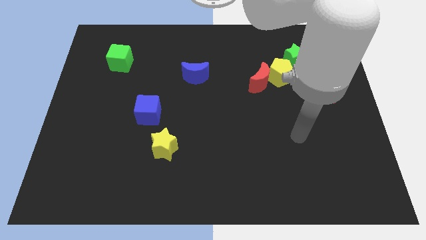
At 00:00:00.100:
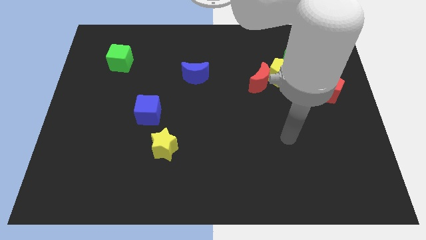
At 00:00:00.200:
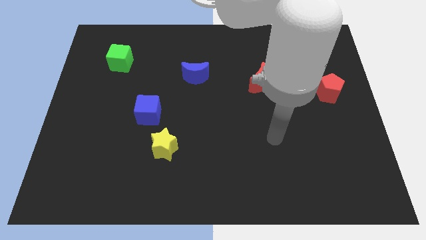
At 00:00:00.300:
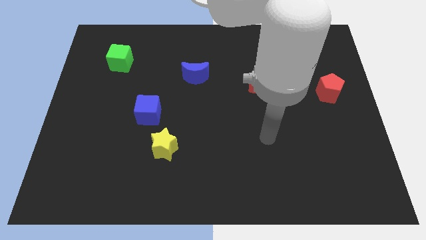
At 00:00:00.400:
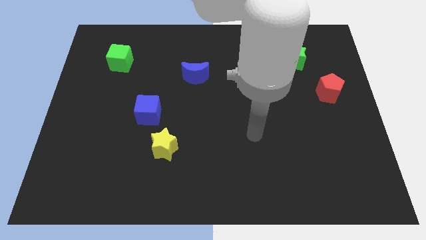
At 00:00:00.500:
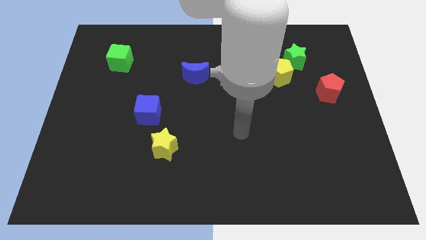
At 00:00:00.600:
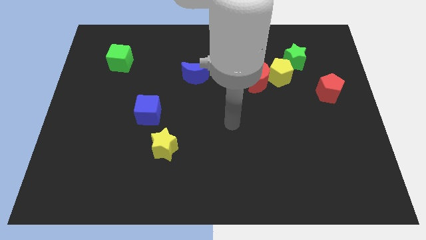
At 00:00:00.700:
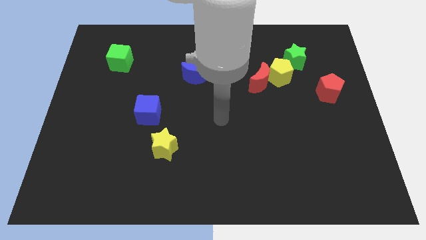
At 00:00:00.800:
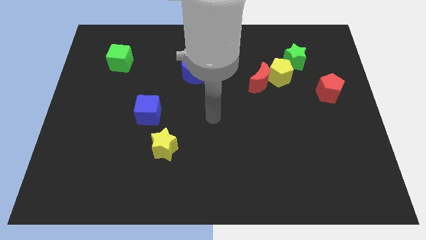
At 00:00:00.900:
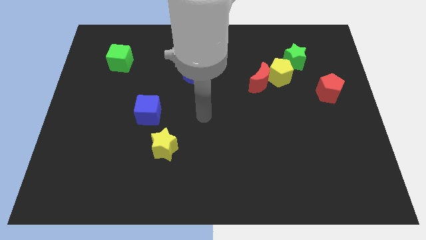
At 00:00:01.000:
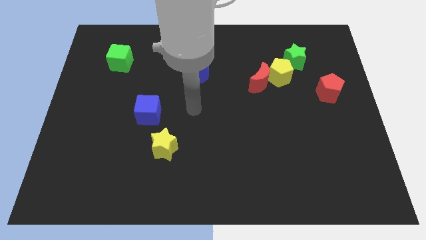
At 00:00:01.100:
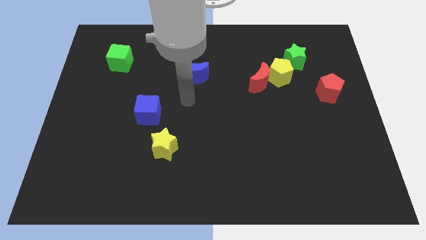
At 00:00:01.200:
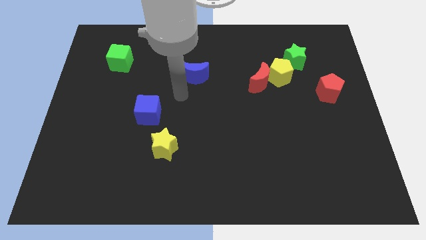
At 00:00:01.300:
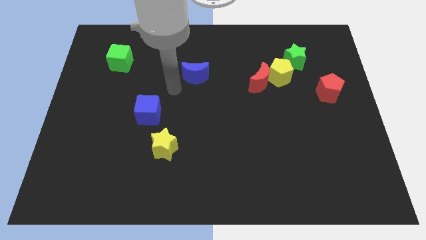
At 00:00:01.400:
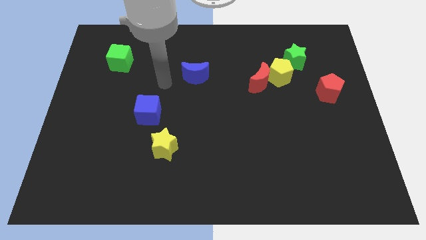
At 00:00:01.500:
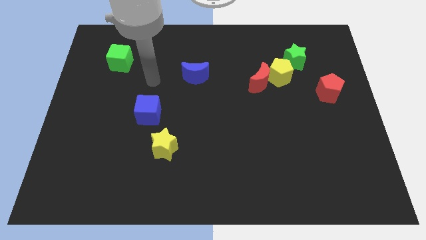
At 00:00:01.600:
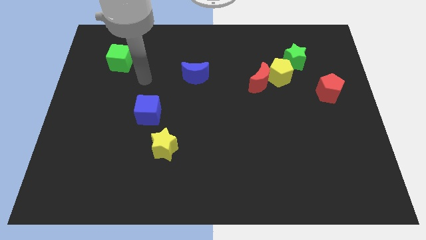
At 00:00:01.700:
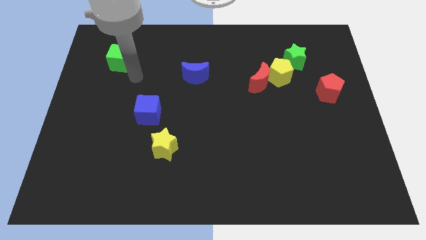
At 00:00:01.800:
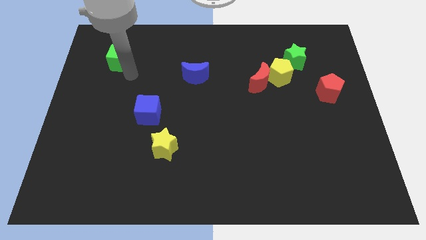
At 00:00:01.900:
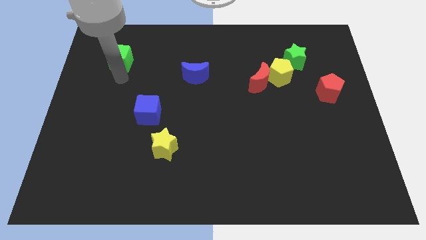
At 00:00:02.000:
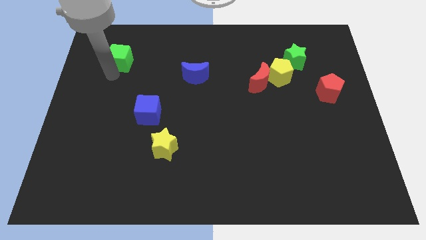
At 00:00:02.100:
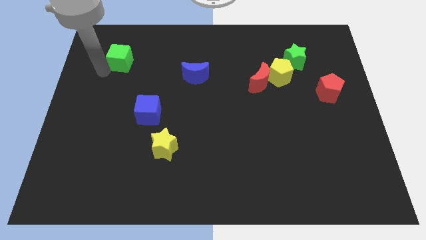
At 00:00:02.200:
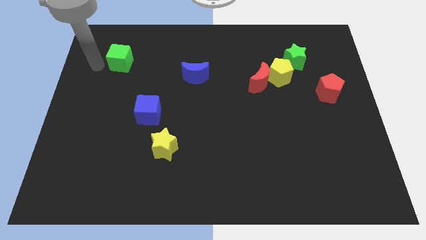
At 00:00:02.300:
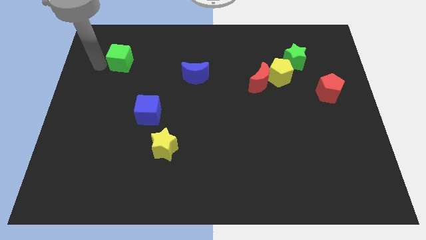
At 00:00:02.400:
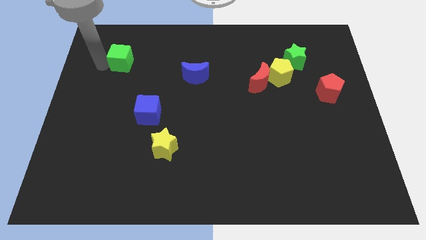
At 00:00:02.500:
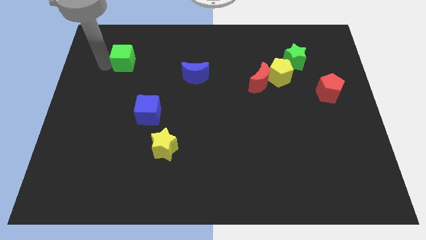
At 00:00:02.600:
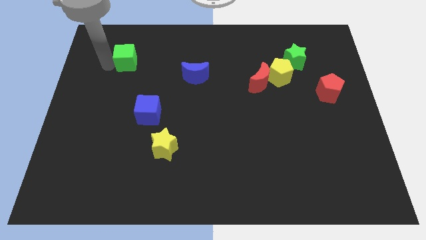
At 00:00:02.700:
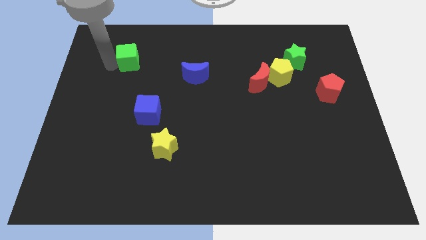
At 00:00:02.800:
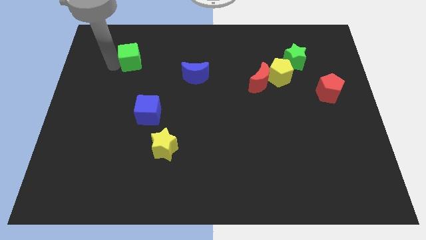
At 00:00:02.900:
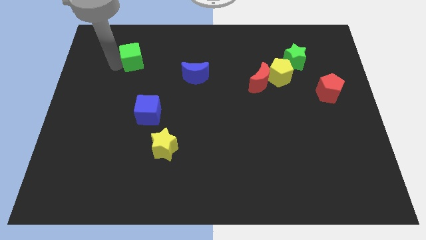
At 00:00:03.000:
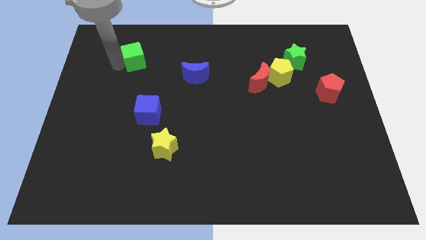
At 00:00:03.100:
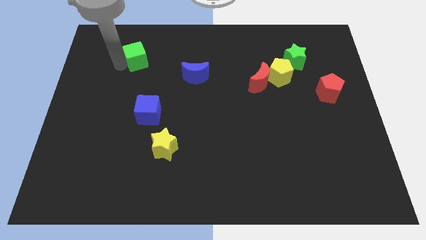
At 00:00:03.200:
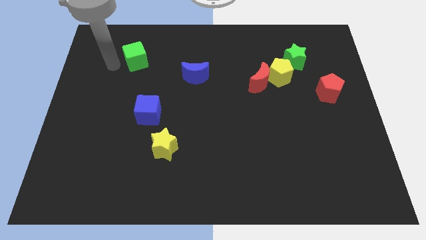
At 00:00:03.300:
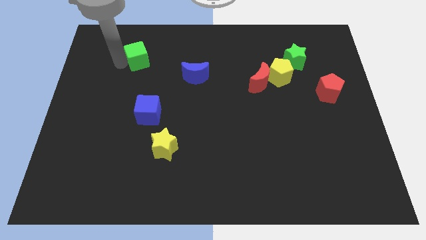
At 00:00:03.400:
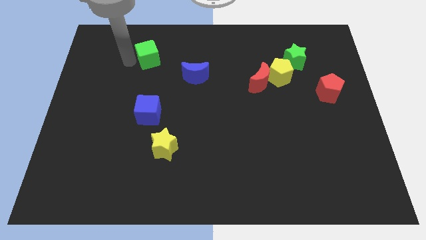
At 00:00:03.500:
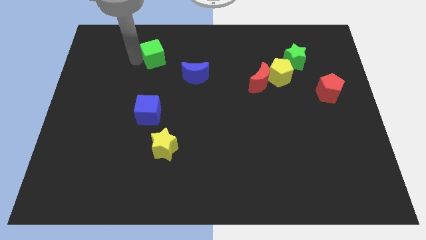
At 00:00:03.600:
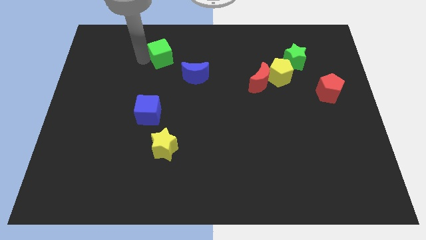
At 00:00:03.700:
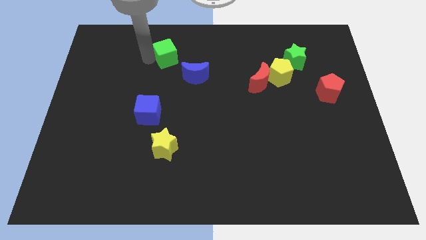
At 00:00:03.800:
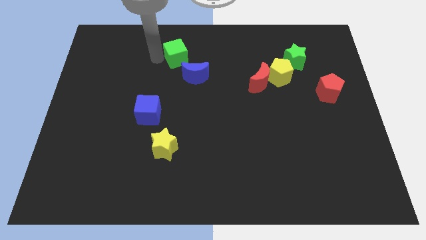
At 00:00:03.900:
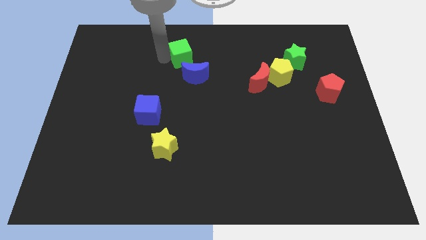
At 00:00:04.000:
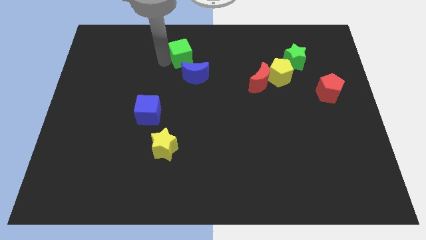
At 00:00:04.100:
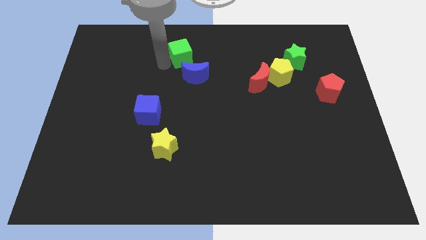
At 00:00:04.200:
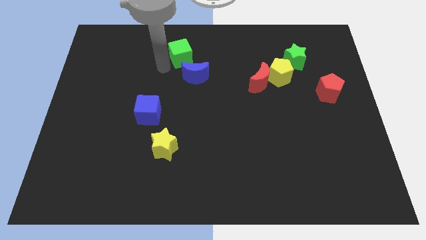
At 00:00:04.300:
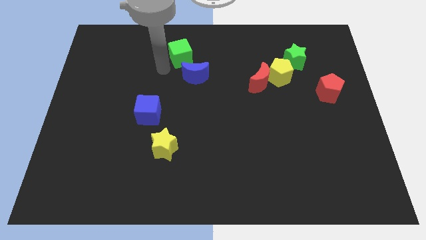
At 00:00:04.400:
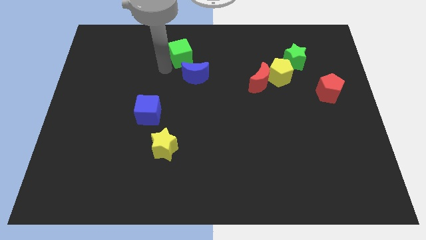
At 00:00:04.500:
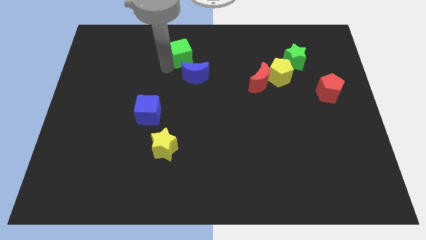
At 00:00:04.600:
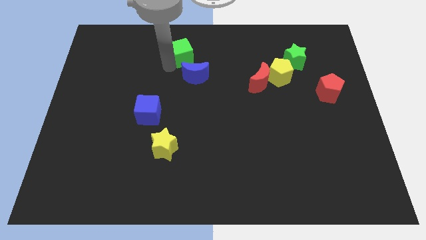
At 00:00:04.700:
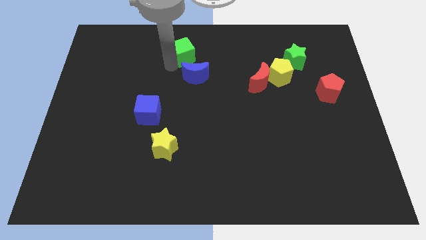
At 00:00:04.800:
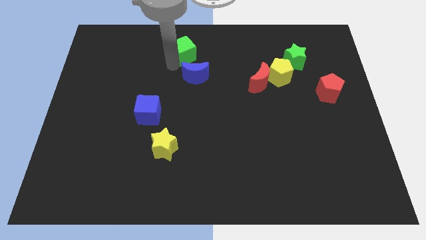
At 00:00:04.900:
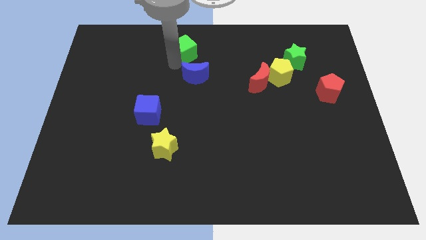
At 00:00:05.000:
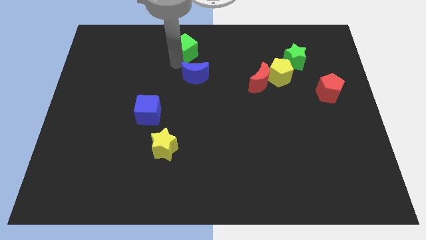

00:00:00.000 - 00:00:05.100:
put the green cube to the top
